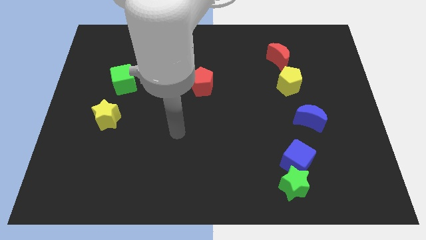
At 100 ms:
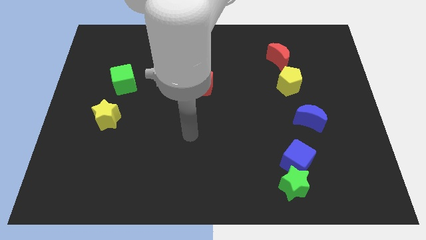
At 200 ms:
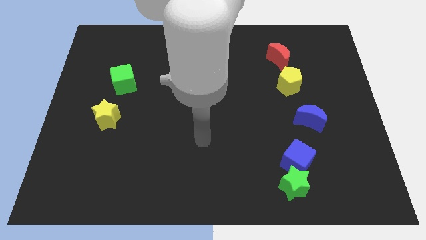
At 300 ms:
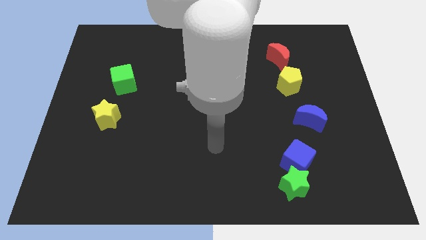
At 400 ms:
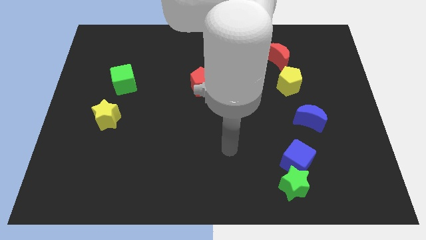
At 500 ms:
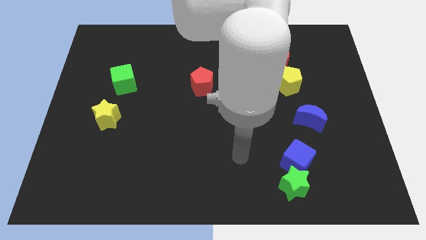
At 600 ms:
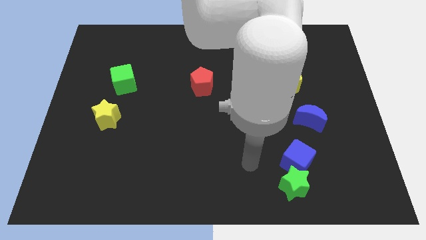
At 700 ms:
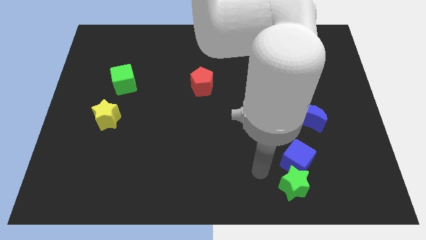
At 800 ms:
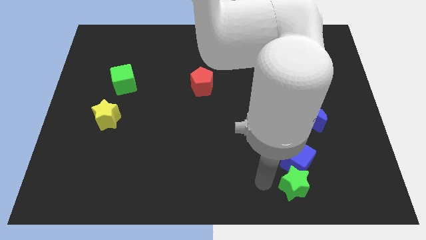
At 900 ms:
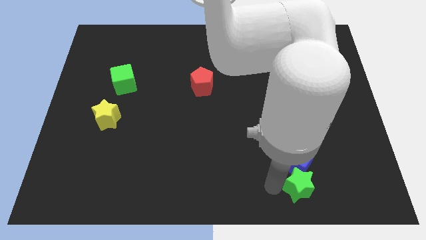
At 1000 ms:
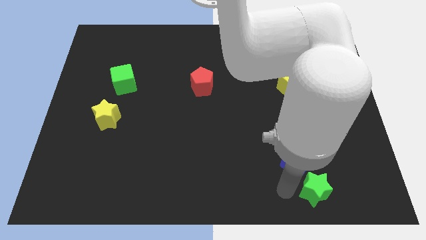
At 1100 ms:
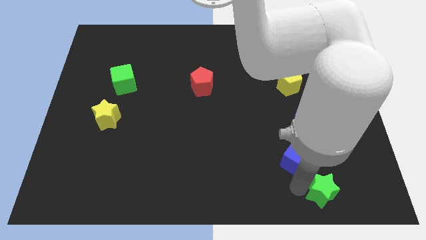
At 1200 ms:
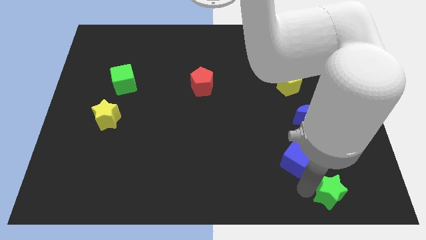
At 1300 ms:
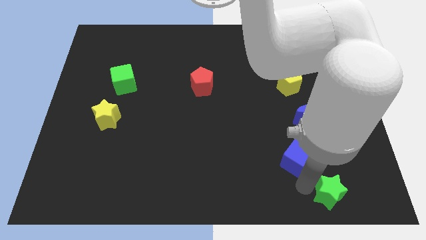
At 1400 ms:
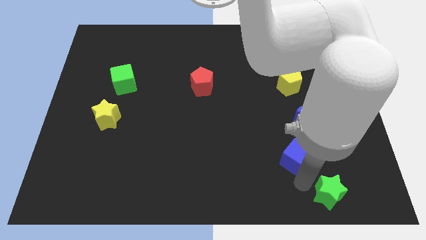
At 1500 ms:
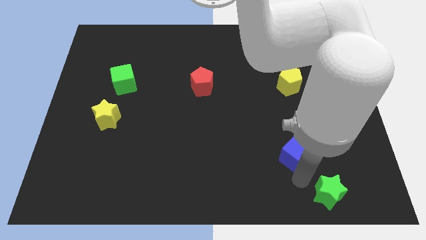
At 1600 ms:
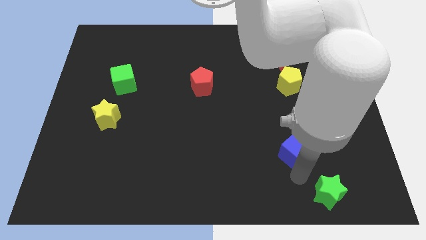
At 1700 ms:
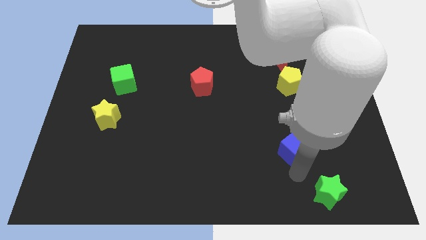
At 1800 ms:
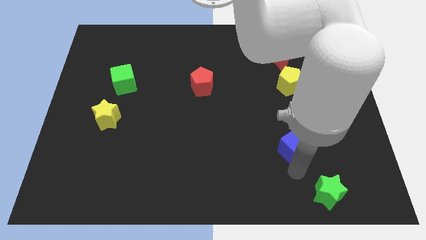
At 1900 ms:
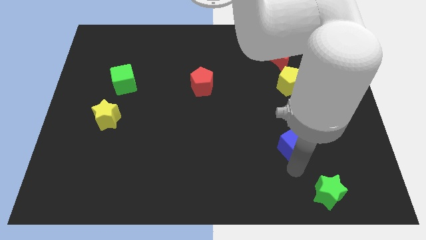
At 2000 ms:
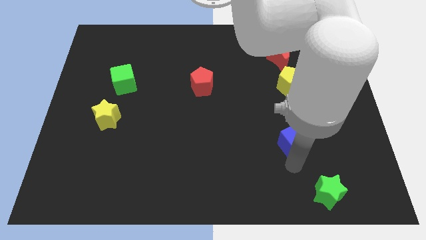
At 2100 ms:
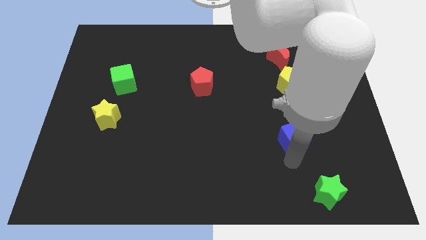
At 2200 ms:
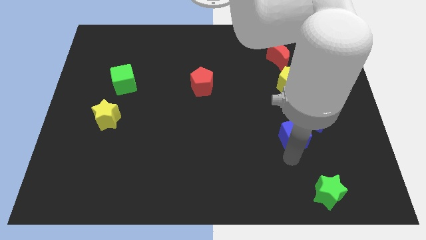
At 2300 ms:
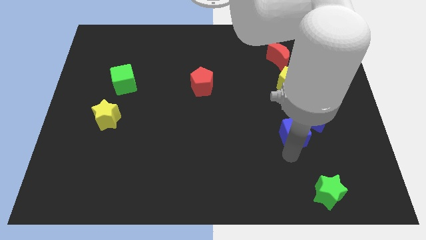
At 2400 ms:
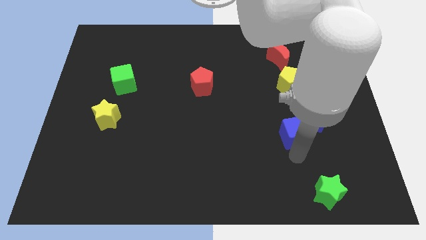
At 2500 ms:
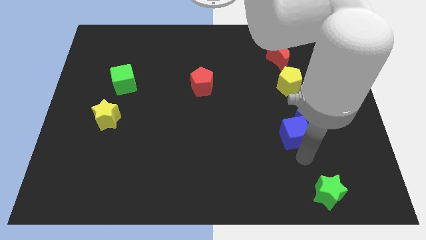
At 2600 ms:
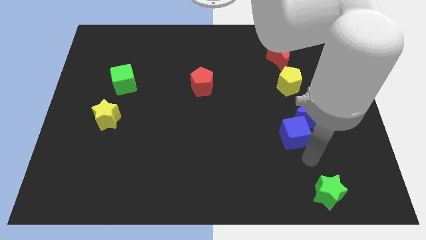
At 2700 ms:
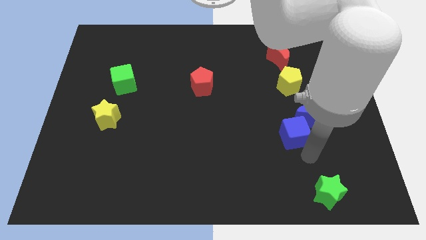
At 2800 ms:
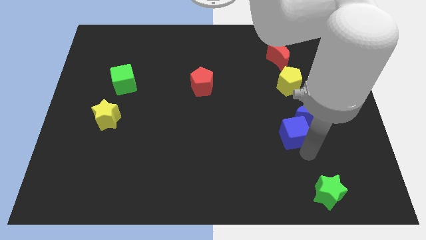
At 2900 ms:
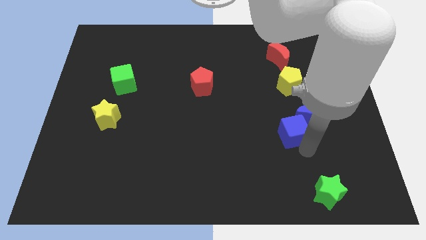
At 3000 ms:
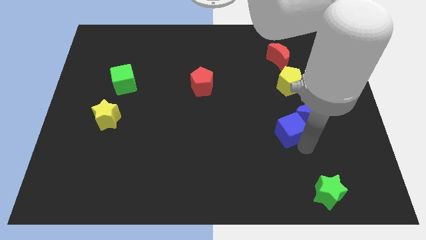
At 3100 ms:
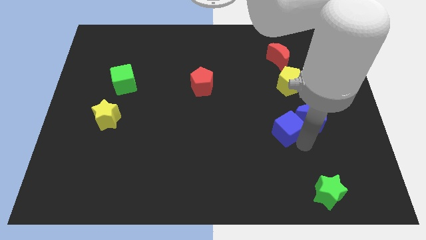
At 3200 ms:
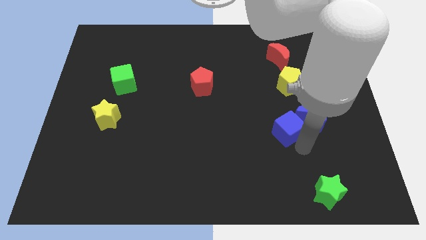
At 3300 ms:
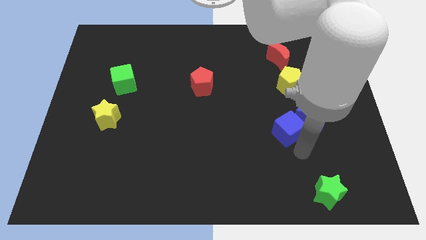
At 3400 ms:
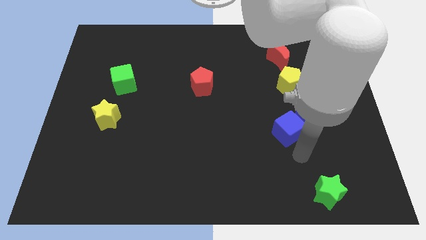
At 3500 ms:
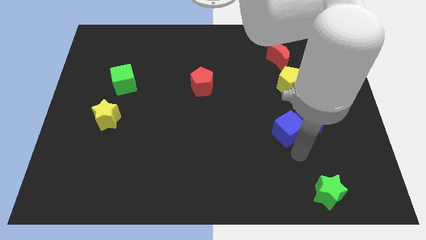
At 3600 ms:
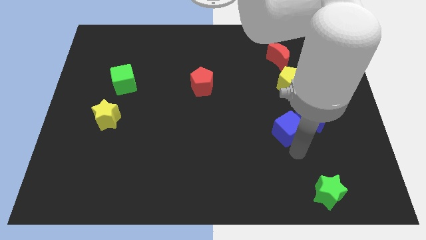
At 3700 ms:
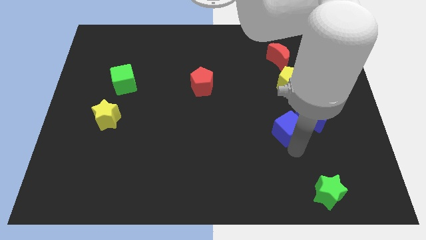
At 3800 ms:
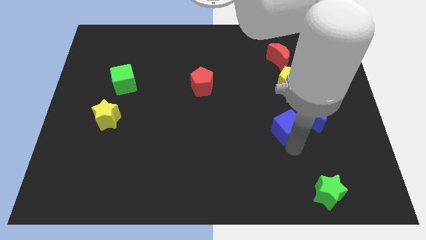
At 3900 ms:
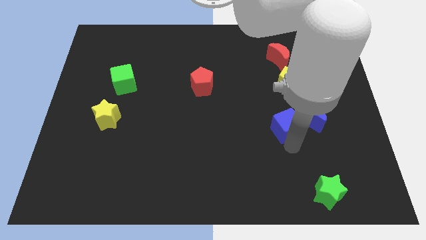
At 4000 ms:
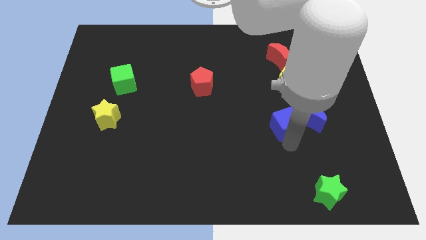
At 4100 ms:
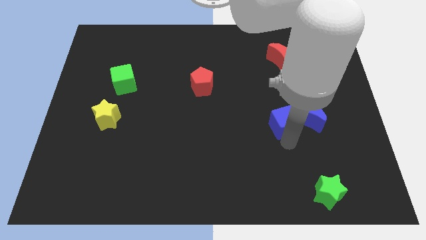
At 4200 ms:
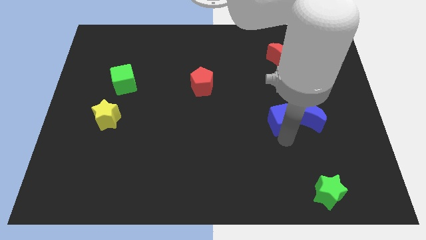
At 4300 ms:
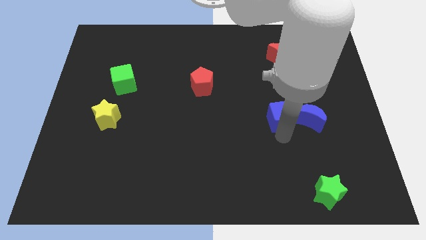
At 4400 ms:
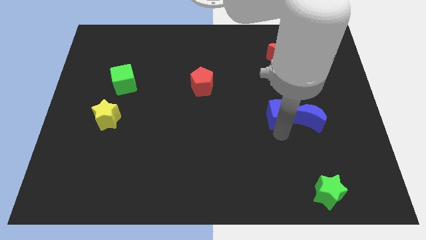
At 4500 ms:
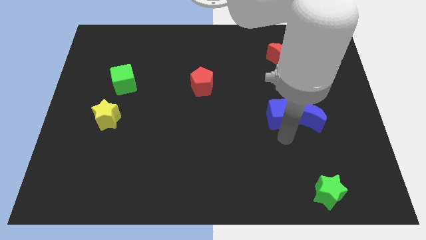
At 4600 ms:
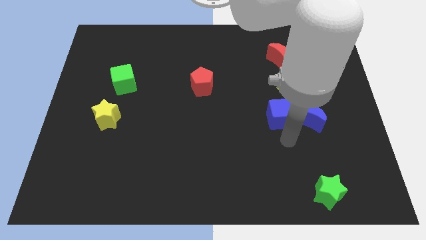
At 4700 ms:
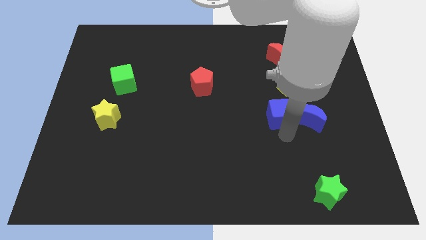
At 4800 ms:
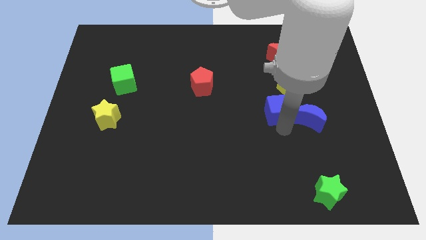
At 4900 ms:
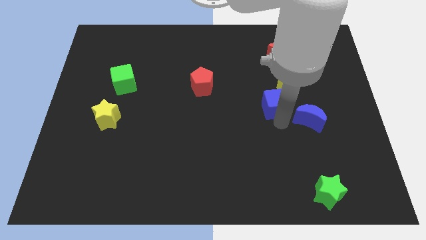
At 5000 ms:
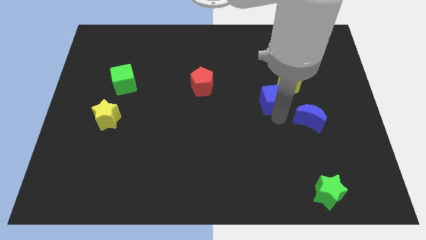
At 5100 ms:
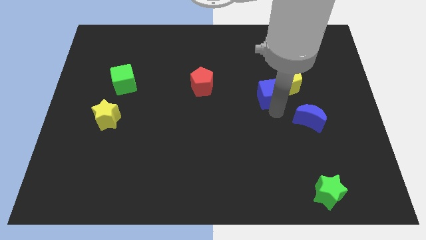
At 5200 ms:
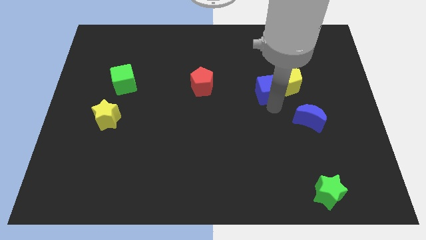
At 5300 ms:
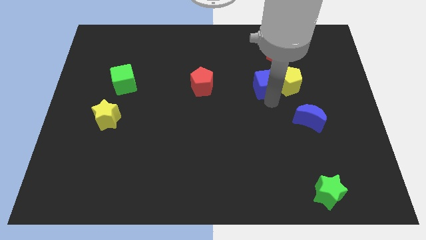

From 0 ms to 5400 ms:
push the blue cube diagonally down and to the left of the red moon

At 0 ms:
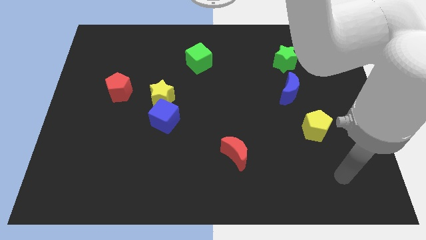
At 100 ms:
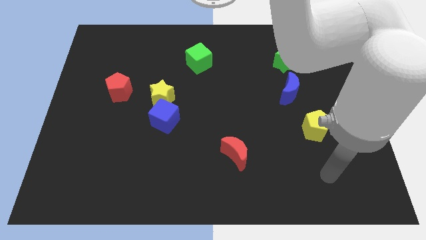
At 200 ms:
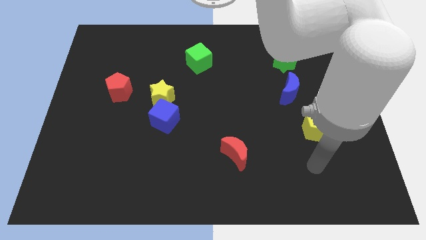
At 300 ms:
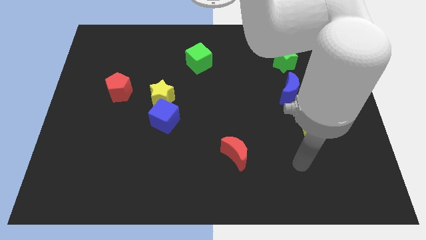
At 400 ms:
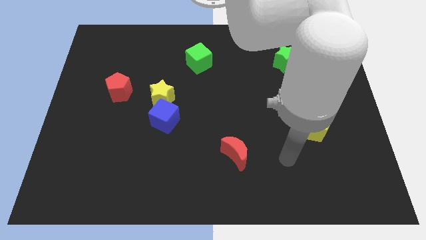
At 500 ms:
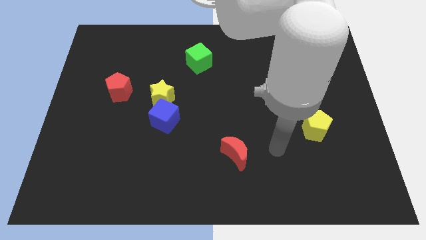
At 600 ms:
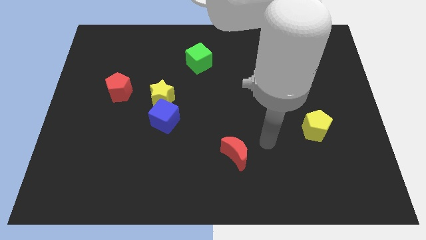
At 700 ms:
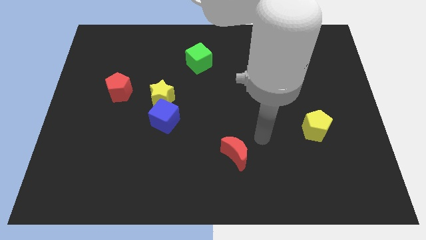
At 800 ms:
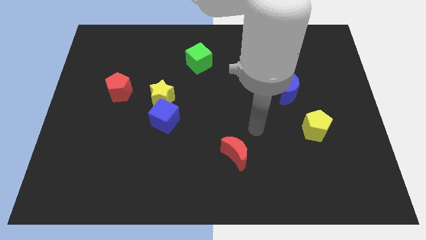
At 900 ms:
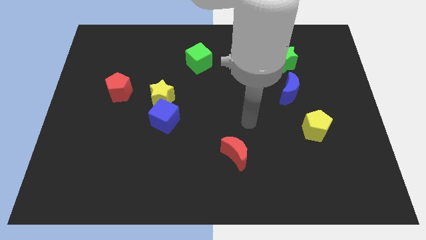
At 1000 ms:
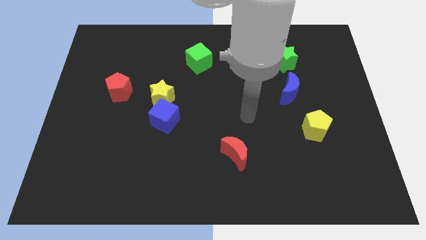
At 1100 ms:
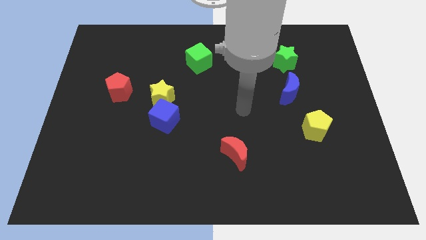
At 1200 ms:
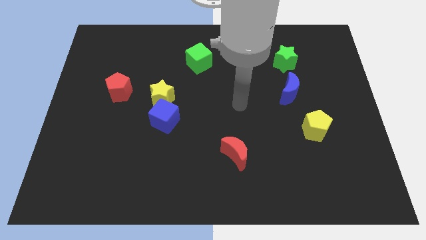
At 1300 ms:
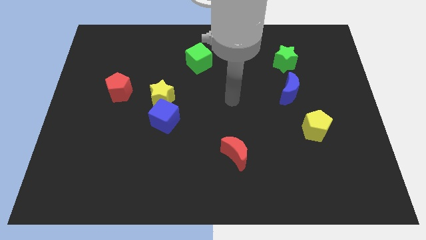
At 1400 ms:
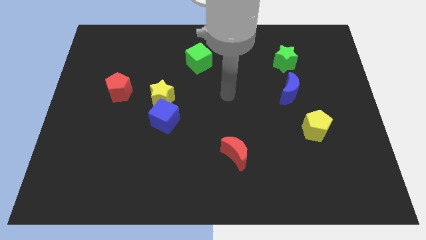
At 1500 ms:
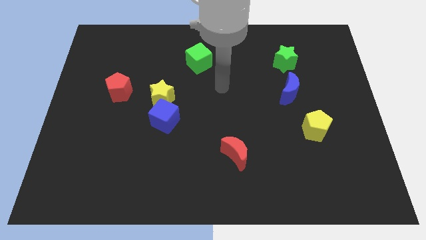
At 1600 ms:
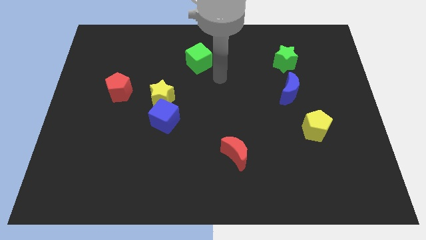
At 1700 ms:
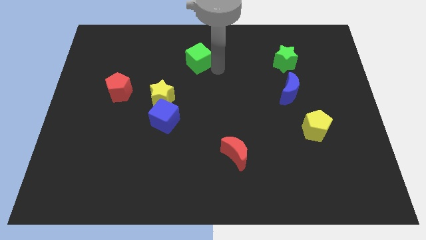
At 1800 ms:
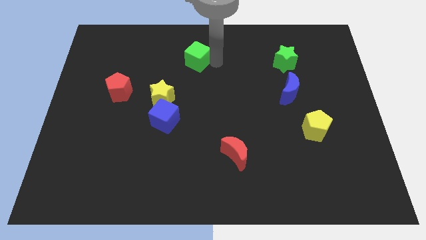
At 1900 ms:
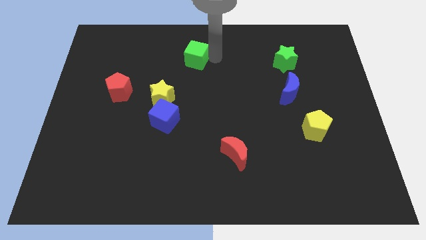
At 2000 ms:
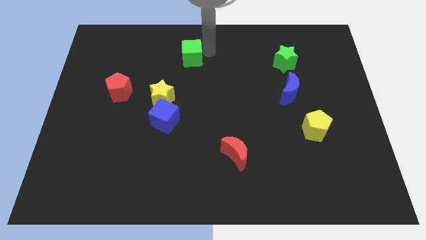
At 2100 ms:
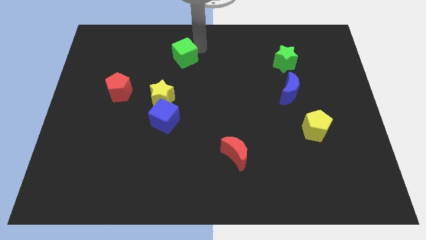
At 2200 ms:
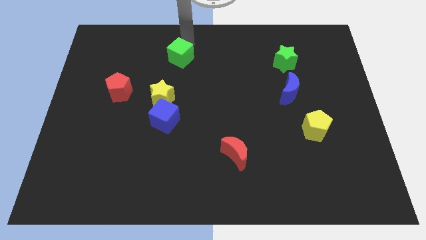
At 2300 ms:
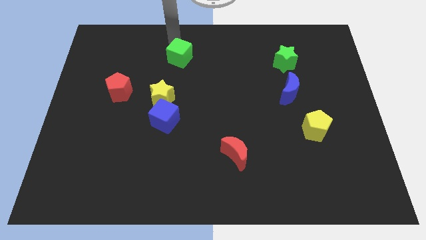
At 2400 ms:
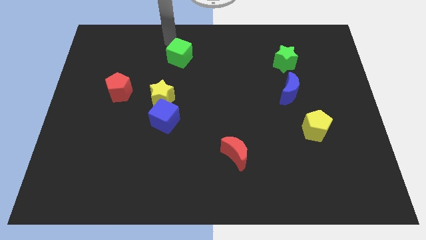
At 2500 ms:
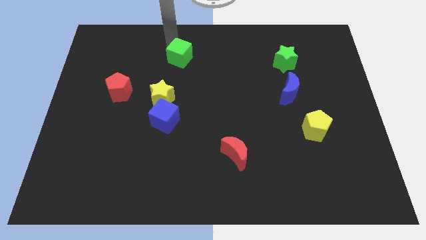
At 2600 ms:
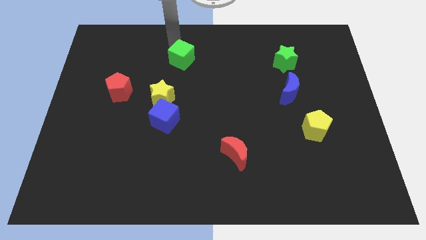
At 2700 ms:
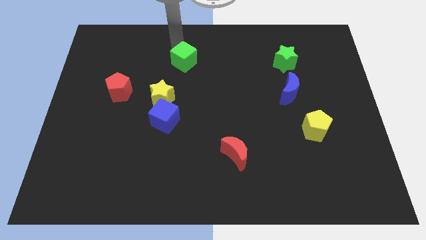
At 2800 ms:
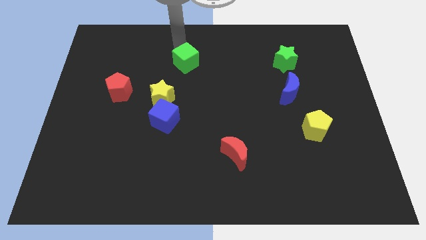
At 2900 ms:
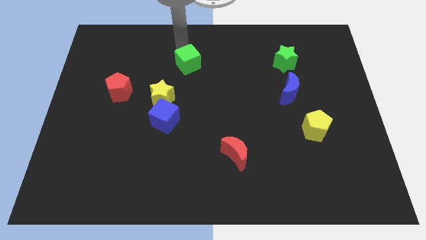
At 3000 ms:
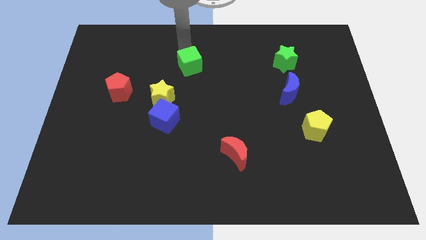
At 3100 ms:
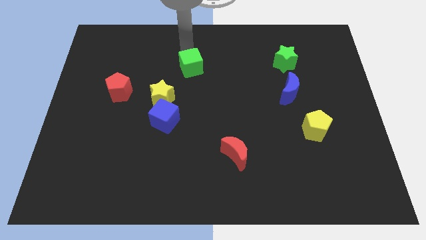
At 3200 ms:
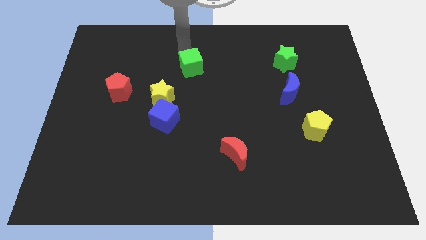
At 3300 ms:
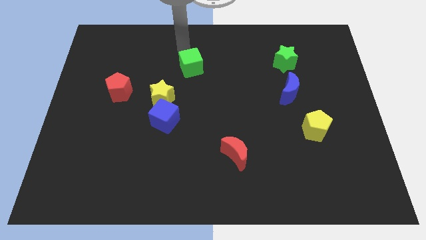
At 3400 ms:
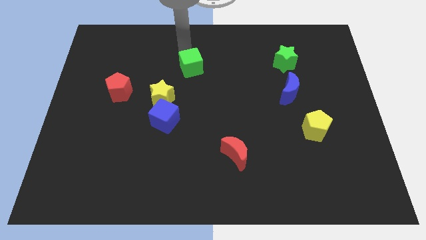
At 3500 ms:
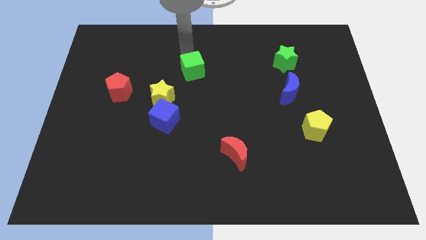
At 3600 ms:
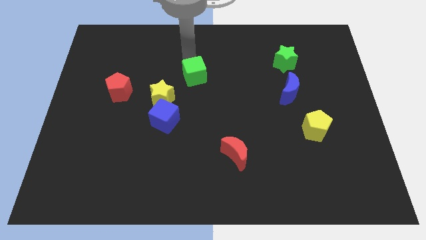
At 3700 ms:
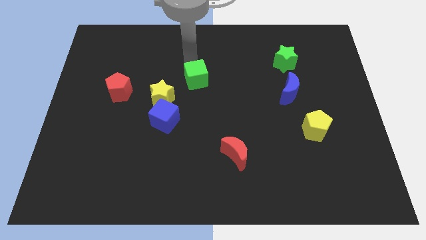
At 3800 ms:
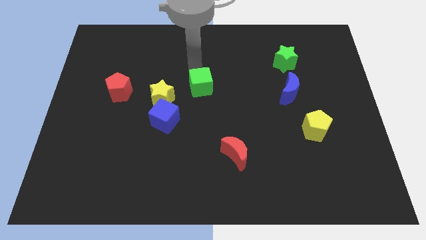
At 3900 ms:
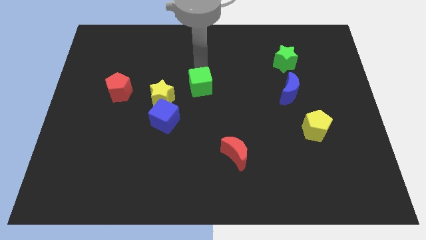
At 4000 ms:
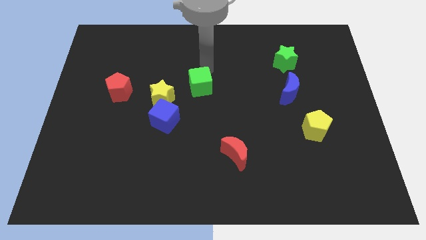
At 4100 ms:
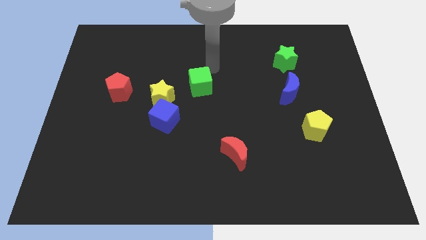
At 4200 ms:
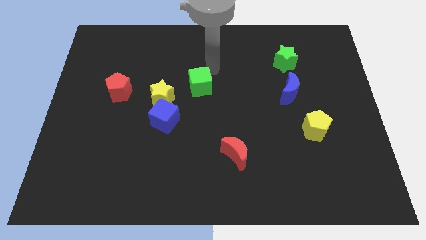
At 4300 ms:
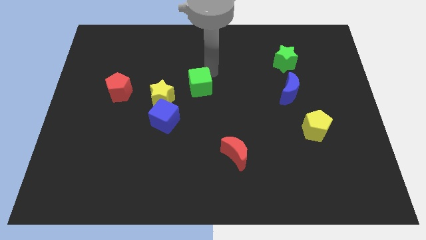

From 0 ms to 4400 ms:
move the green cube diagonally up and to the right of the blue cube
